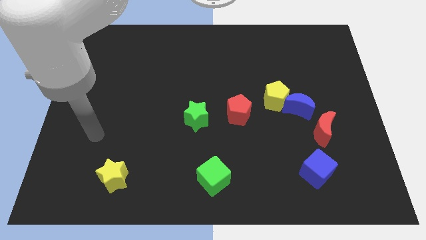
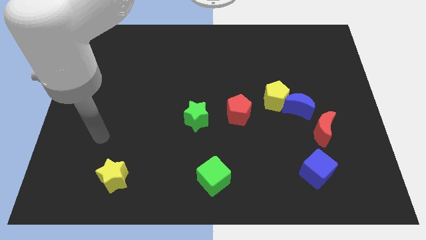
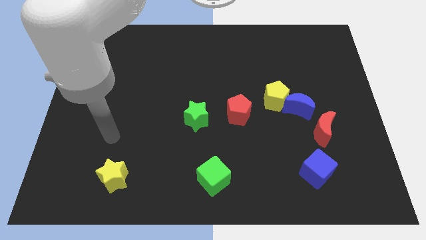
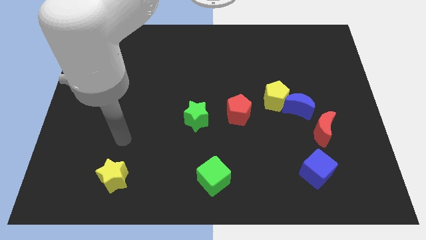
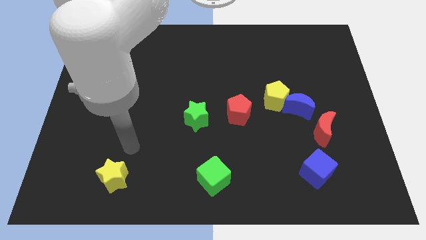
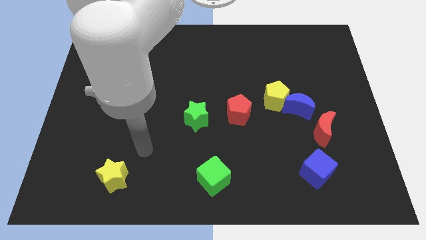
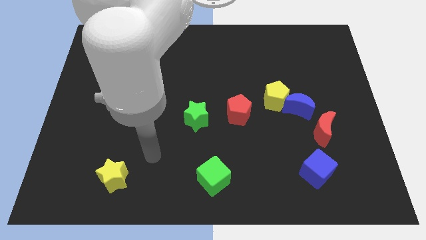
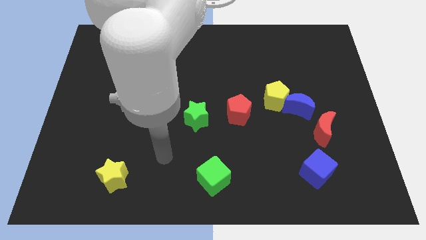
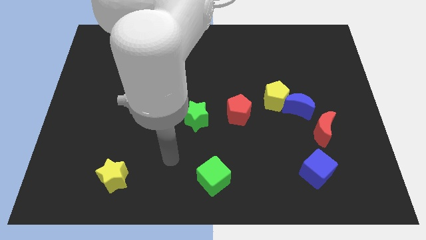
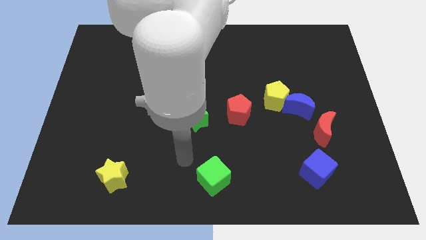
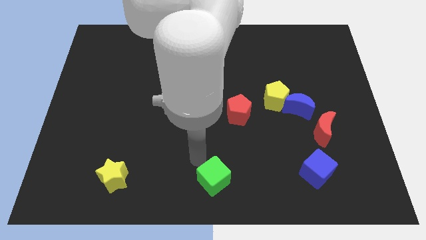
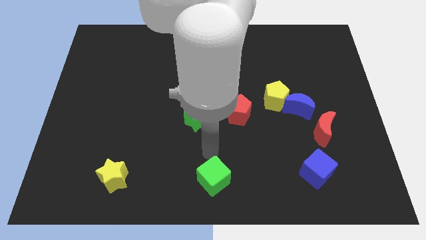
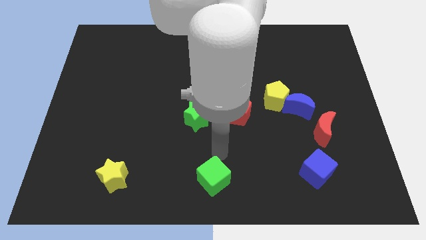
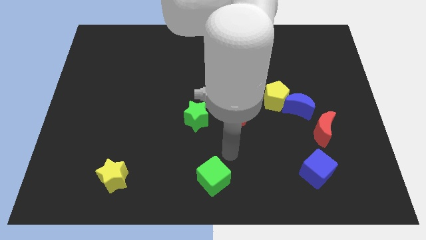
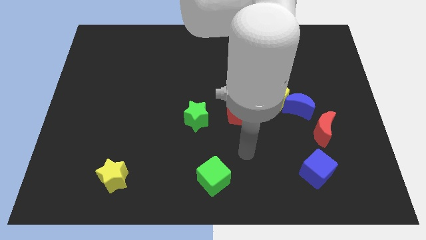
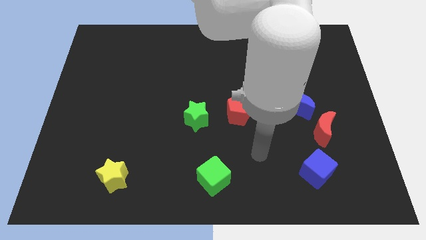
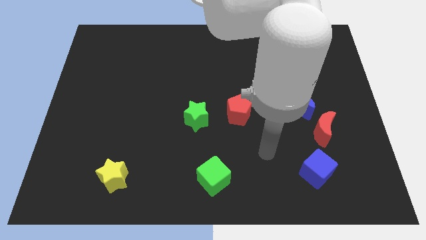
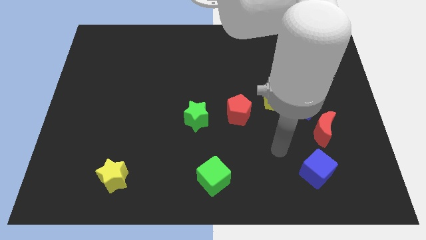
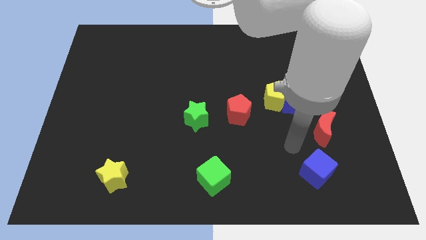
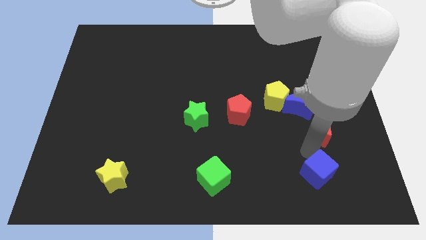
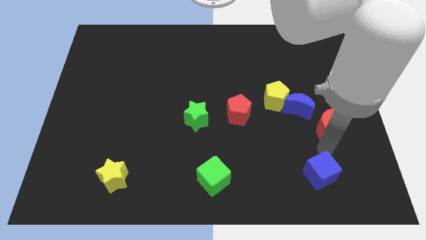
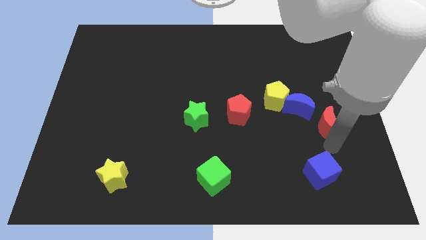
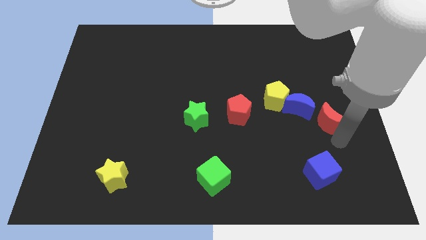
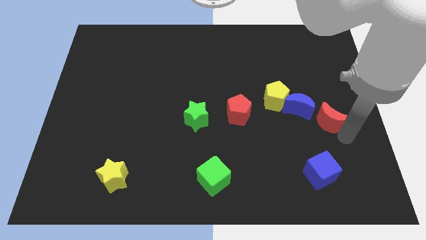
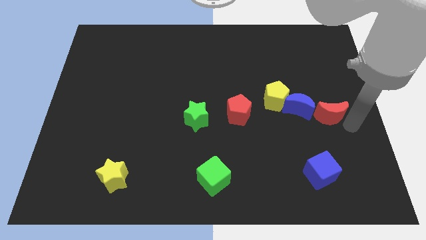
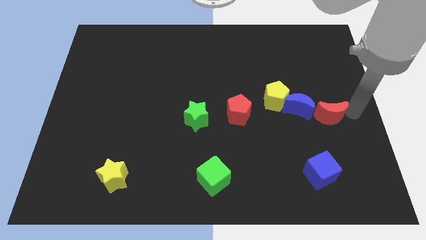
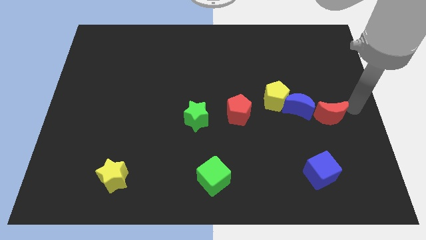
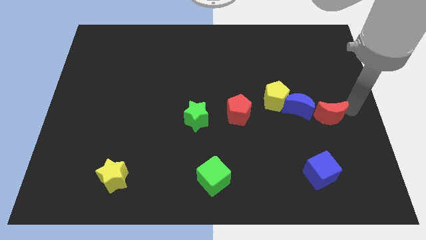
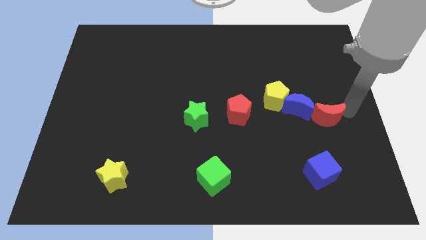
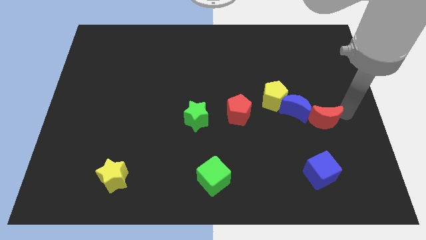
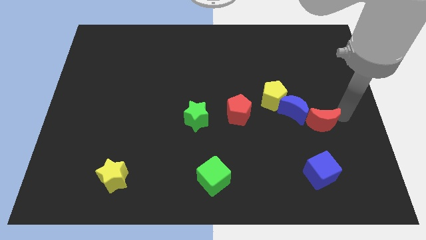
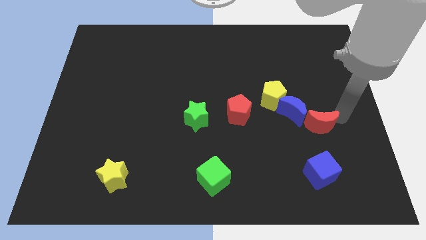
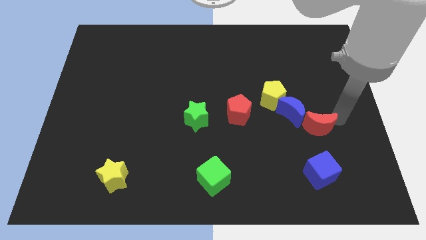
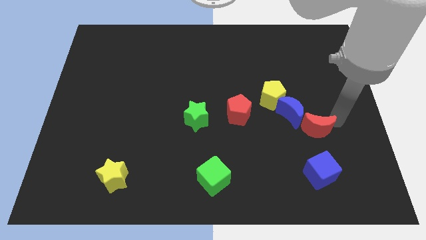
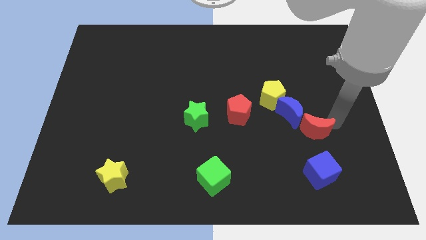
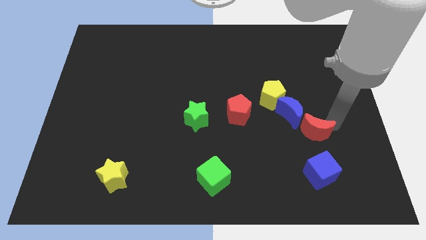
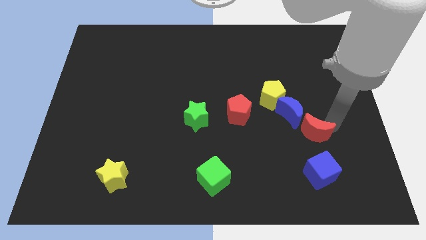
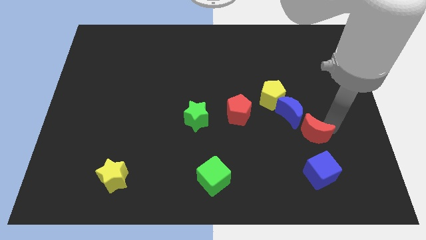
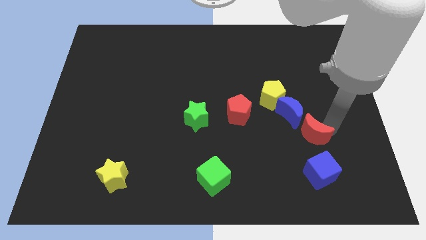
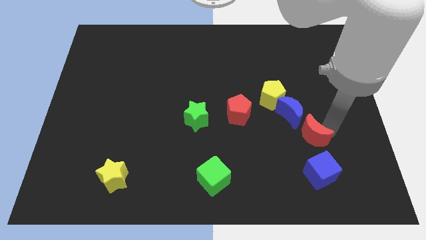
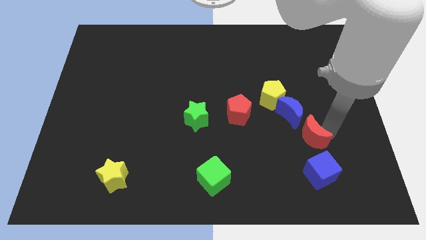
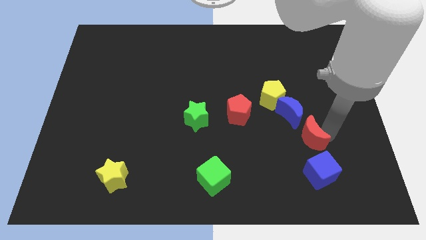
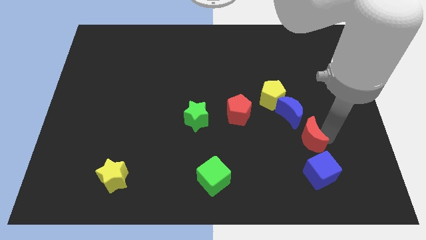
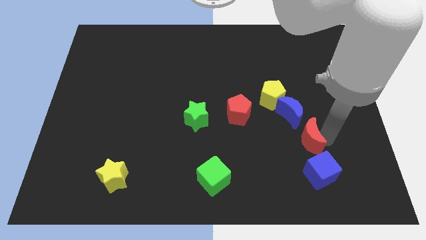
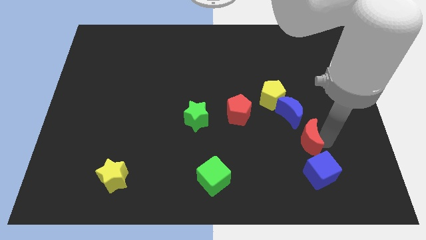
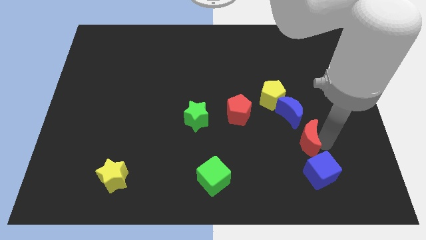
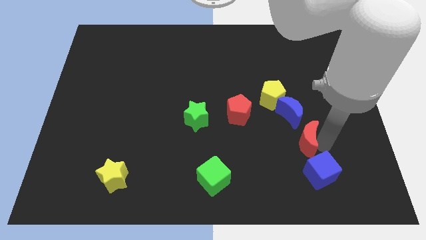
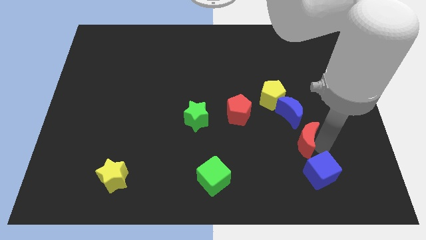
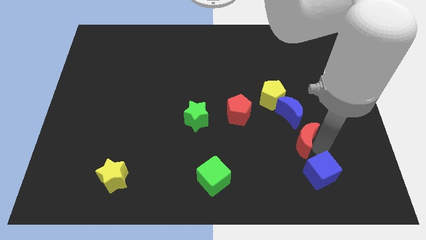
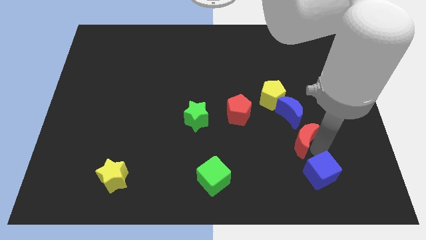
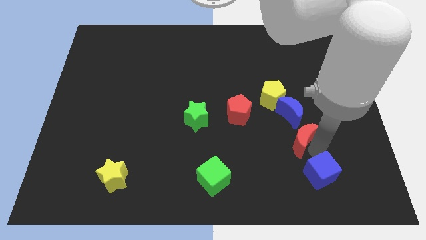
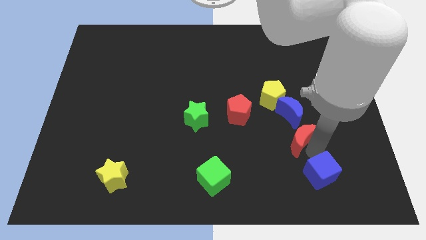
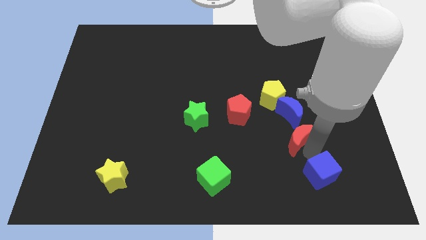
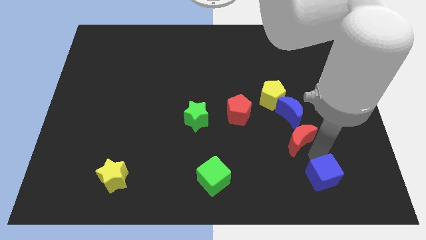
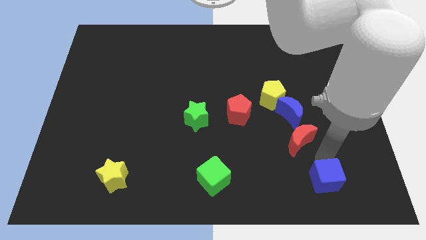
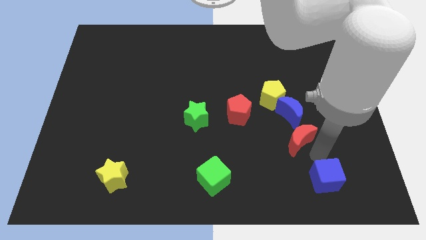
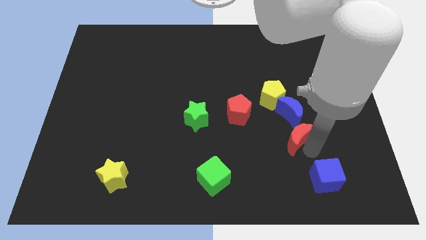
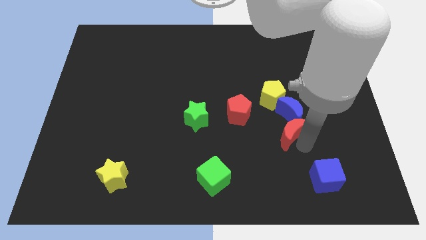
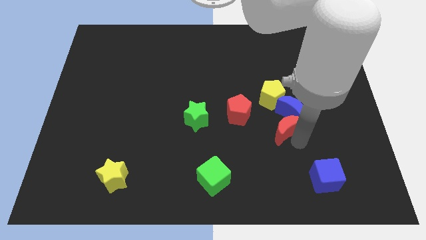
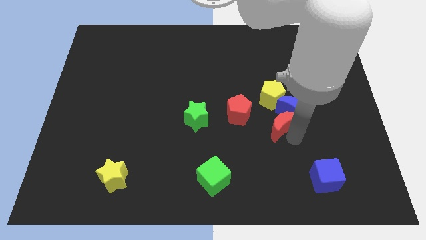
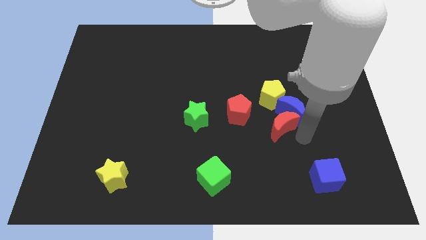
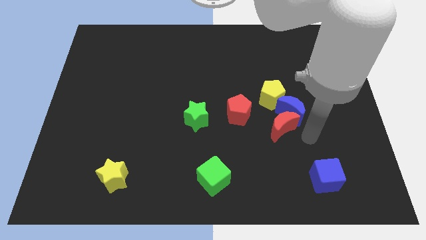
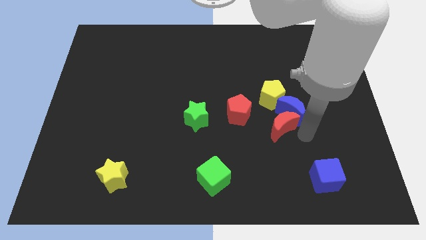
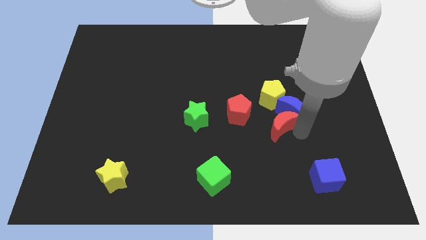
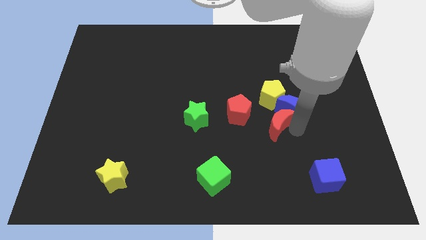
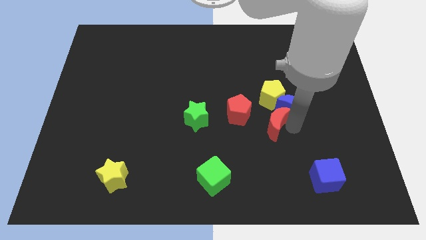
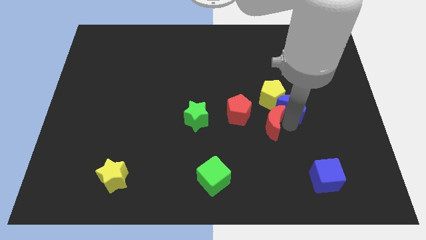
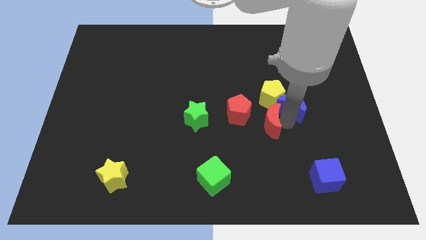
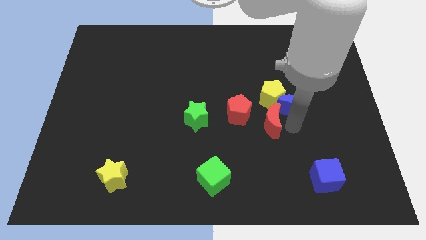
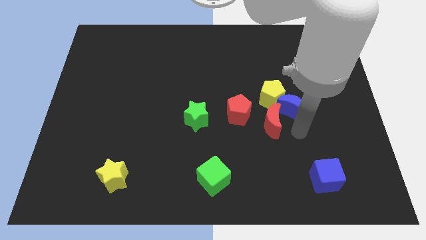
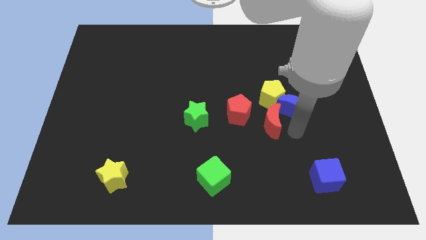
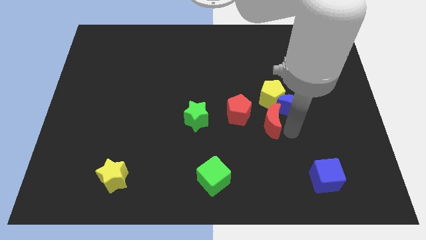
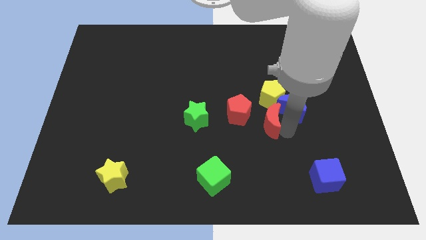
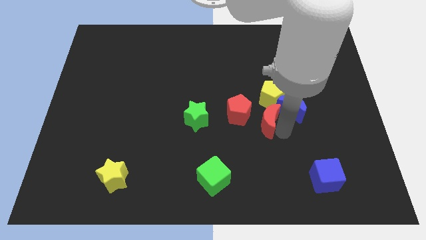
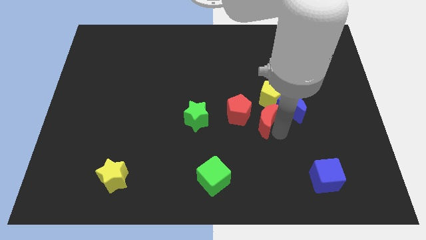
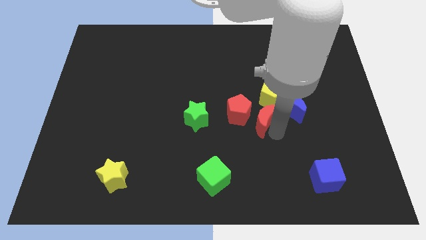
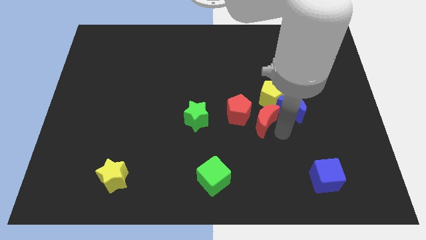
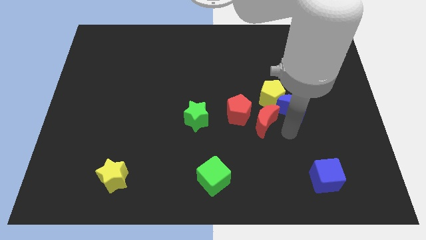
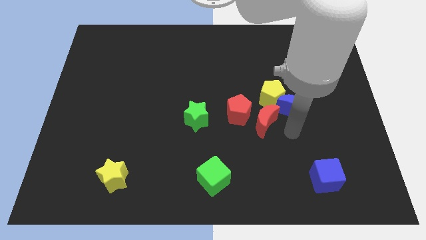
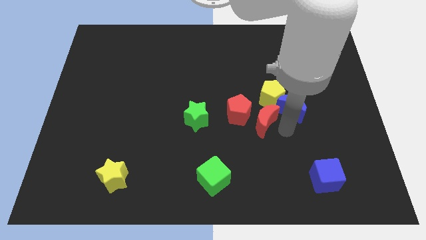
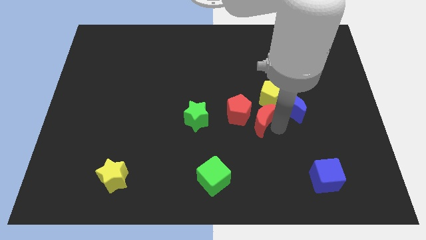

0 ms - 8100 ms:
push the red moon next to the red pentagon
